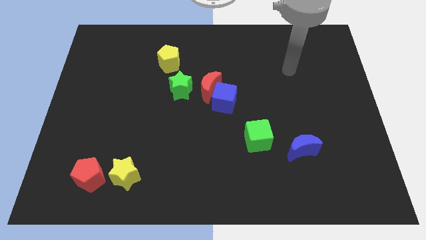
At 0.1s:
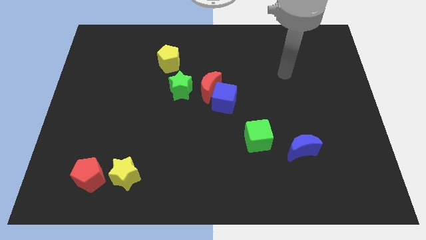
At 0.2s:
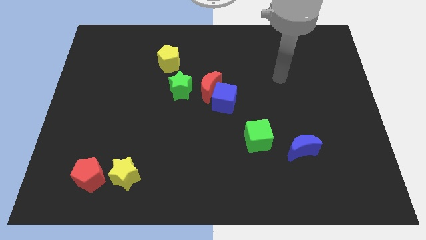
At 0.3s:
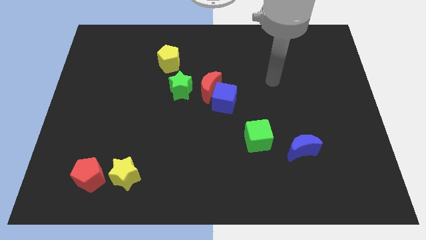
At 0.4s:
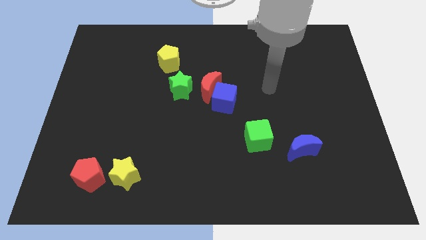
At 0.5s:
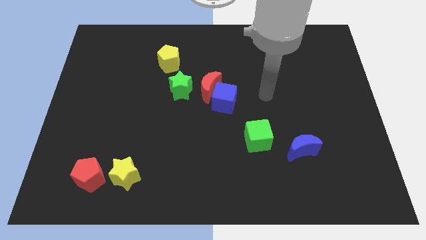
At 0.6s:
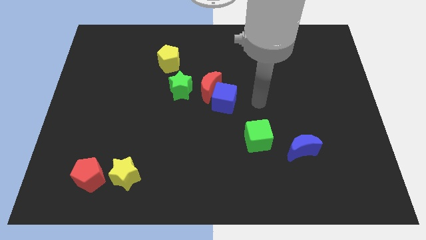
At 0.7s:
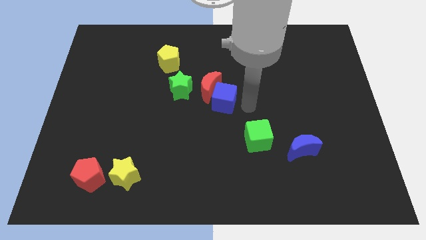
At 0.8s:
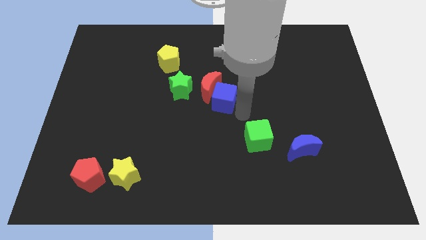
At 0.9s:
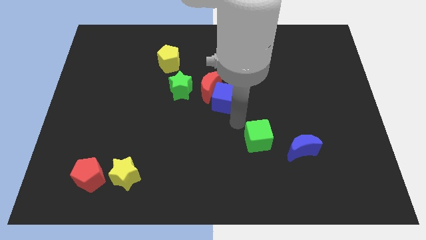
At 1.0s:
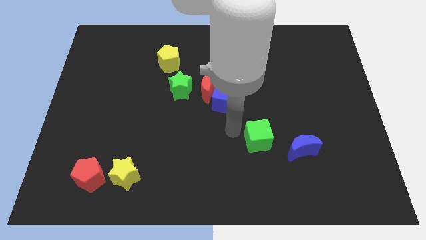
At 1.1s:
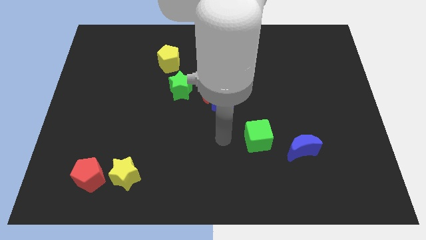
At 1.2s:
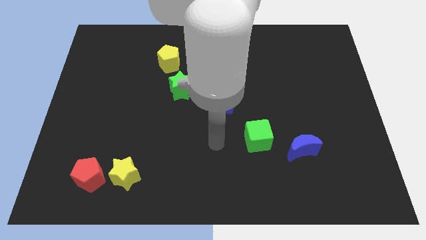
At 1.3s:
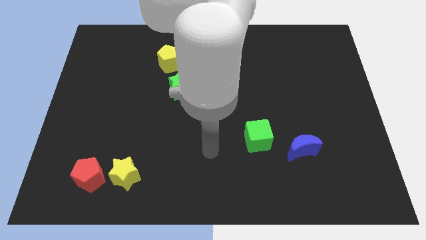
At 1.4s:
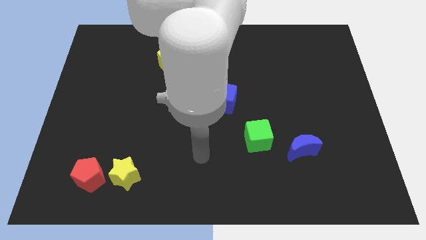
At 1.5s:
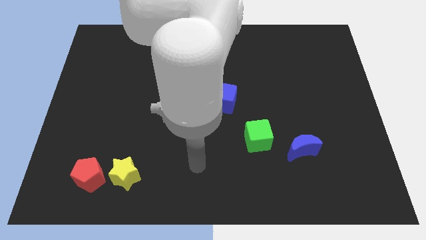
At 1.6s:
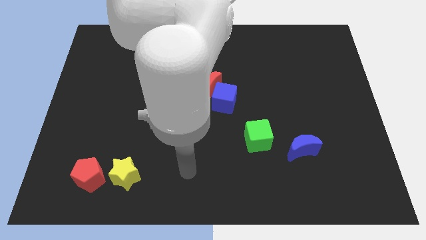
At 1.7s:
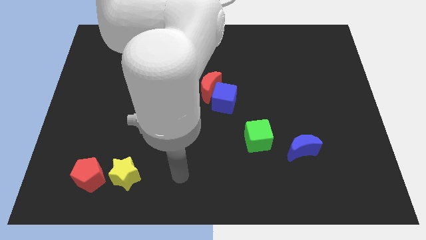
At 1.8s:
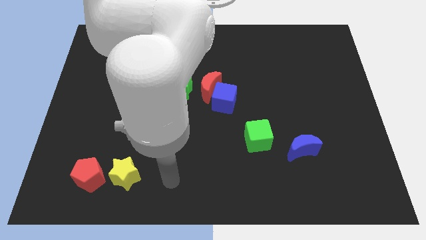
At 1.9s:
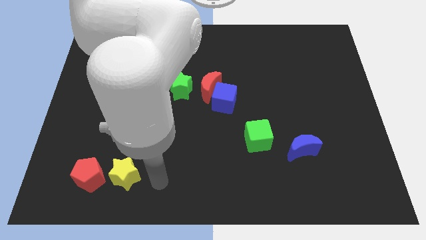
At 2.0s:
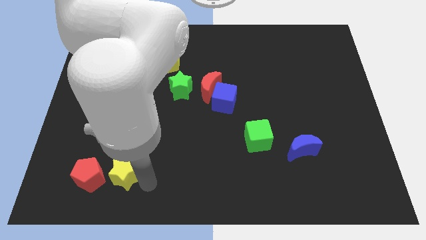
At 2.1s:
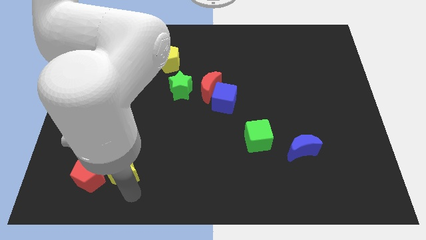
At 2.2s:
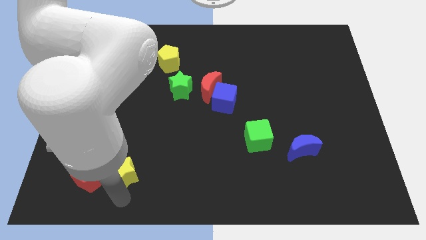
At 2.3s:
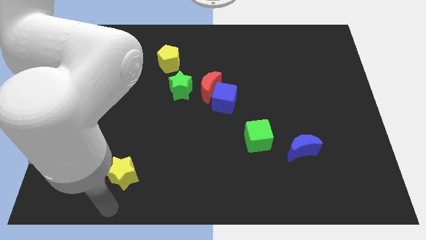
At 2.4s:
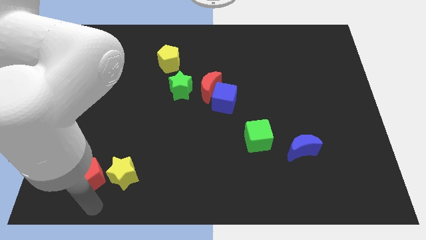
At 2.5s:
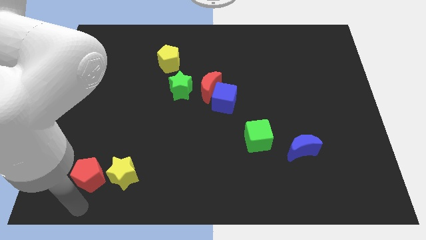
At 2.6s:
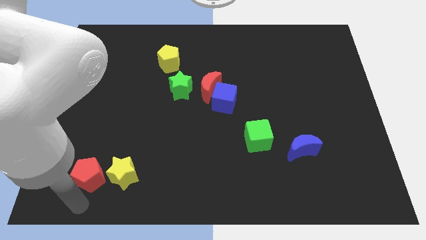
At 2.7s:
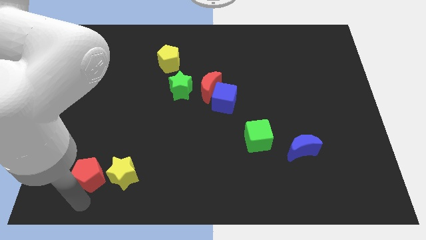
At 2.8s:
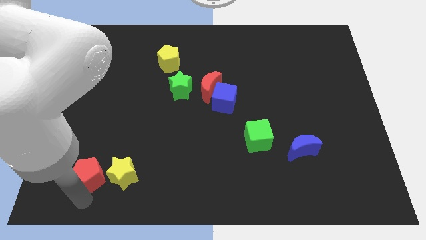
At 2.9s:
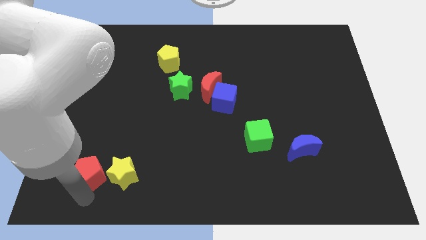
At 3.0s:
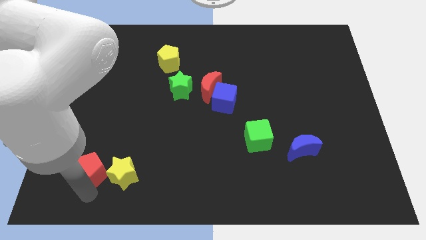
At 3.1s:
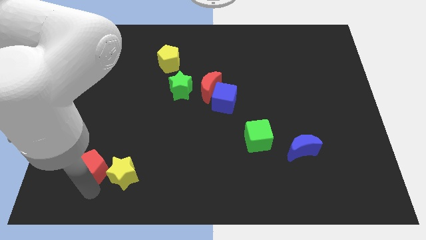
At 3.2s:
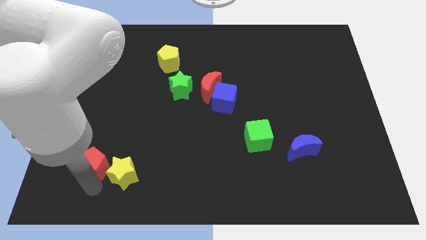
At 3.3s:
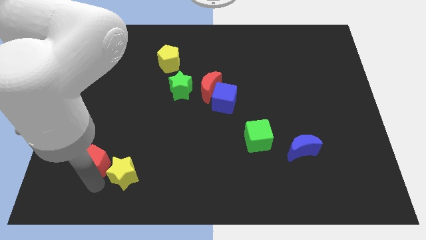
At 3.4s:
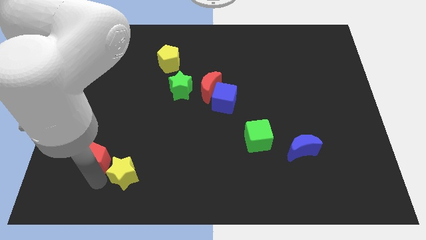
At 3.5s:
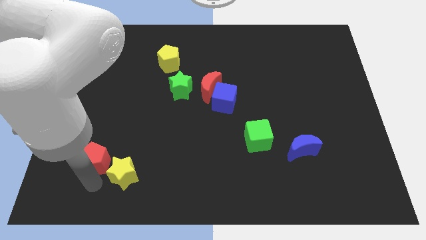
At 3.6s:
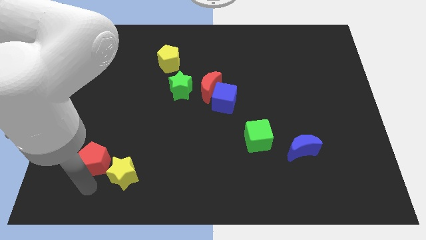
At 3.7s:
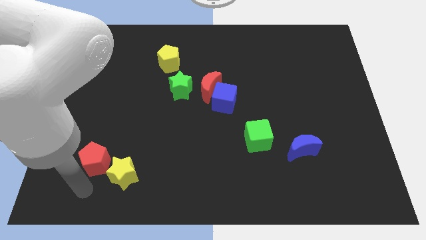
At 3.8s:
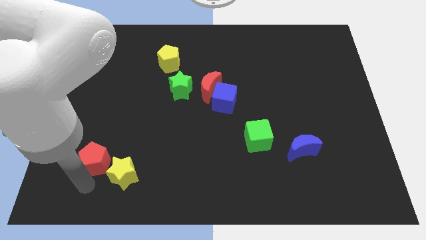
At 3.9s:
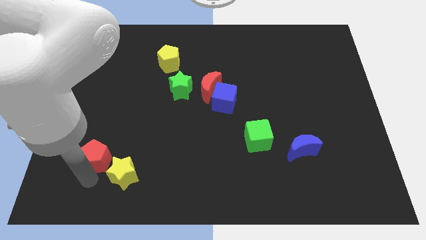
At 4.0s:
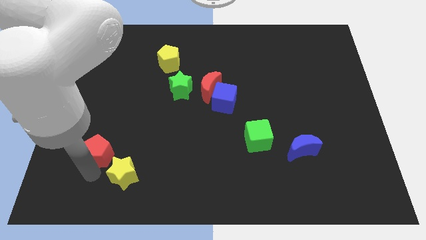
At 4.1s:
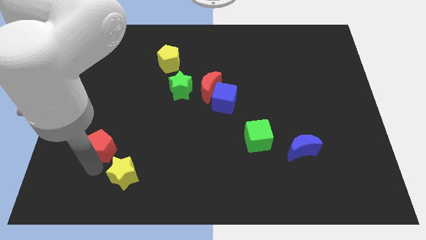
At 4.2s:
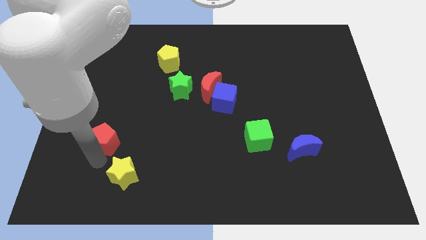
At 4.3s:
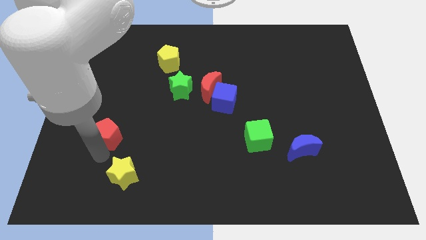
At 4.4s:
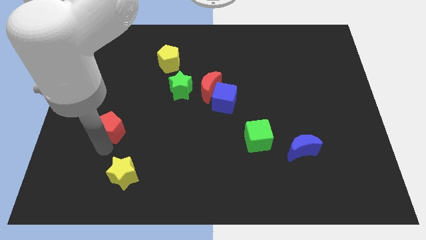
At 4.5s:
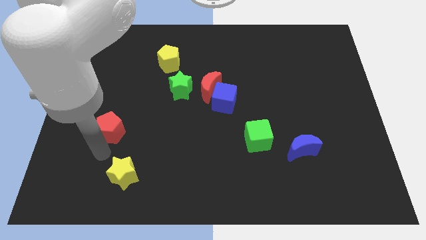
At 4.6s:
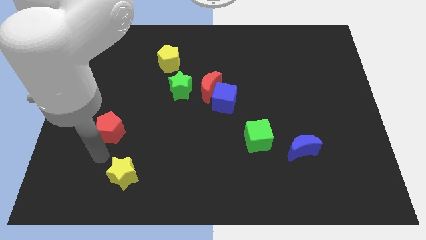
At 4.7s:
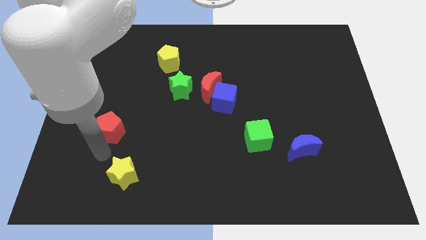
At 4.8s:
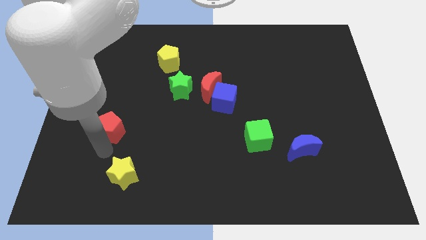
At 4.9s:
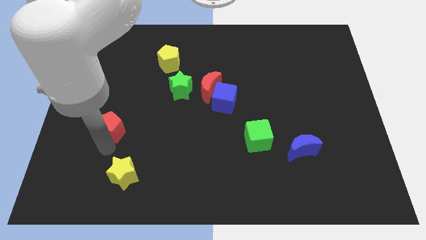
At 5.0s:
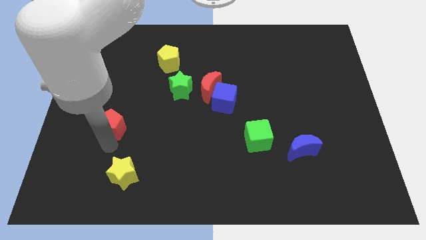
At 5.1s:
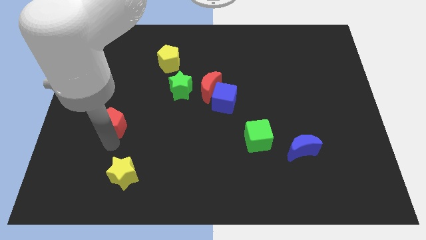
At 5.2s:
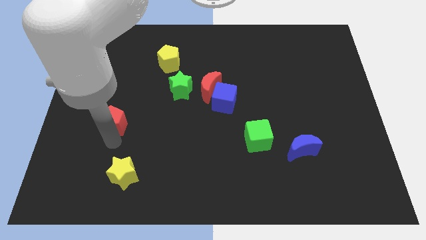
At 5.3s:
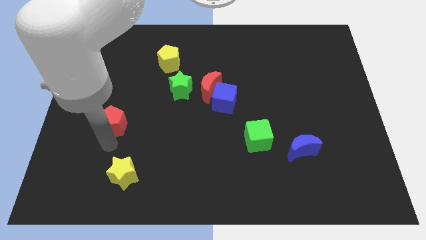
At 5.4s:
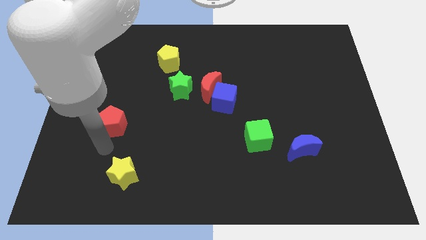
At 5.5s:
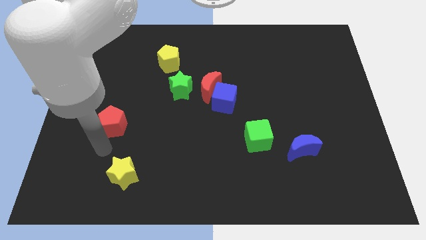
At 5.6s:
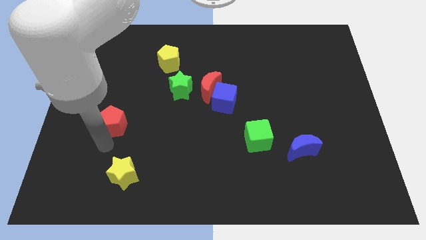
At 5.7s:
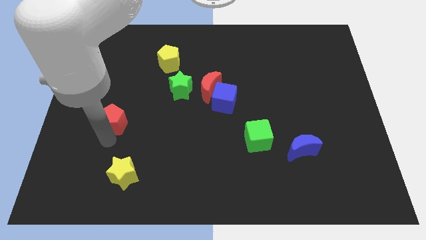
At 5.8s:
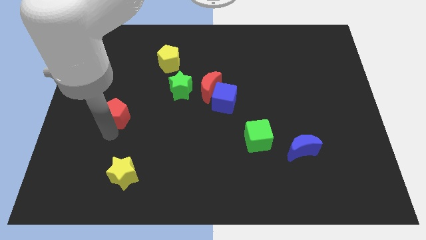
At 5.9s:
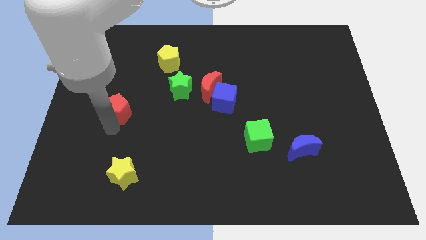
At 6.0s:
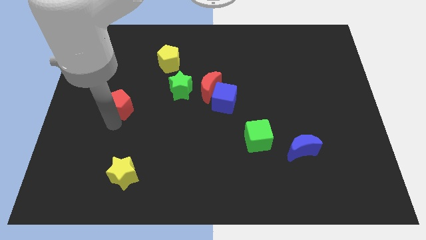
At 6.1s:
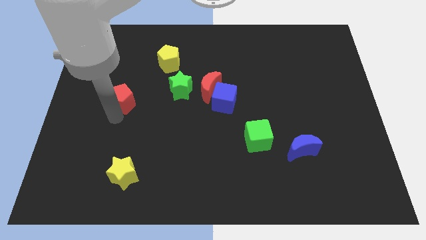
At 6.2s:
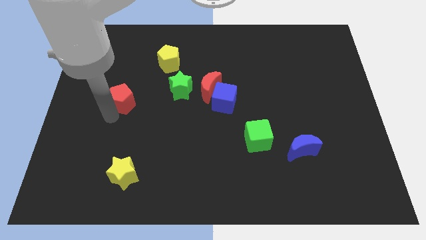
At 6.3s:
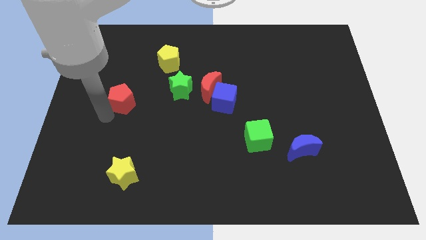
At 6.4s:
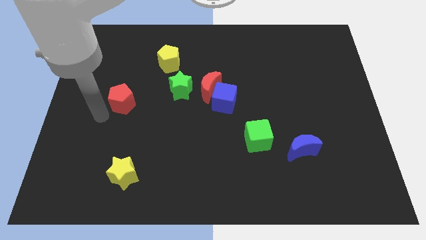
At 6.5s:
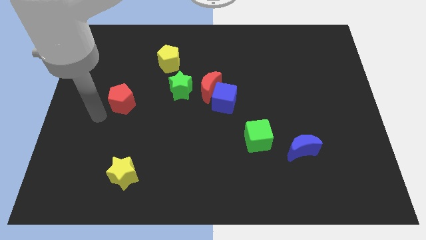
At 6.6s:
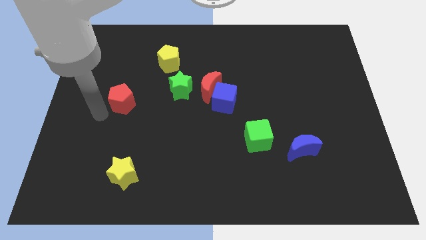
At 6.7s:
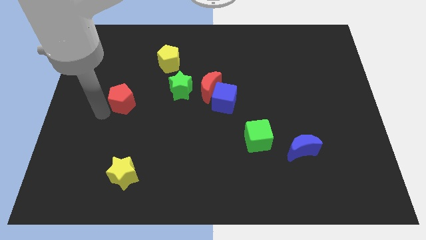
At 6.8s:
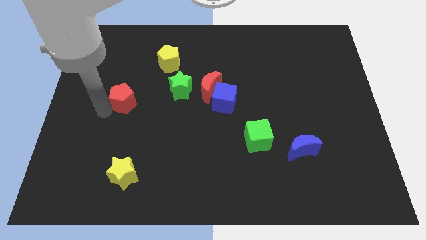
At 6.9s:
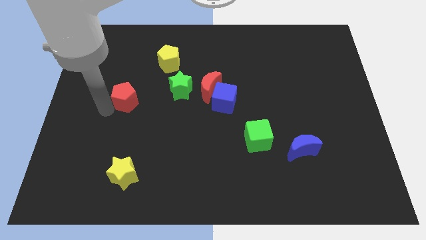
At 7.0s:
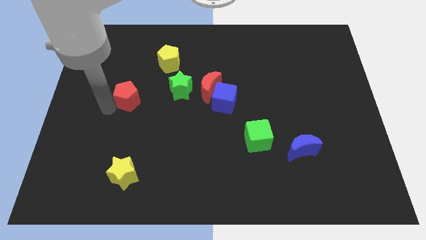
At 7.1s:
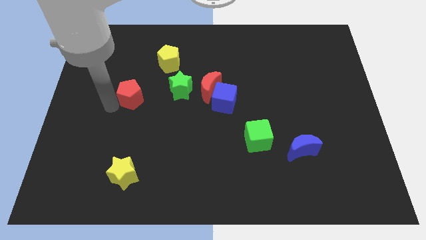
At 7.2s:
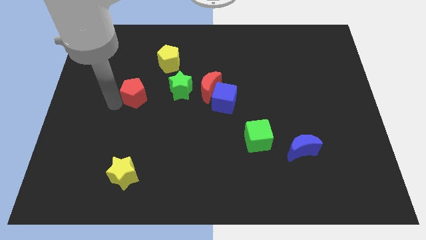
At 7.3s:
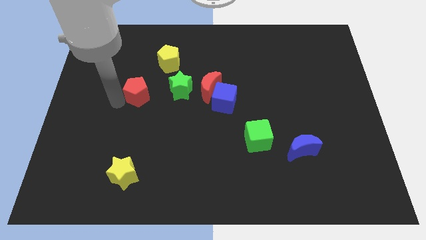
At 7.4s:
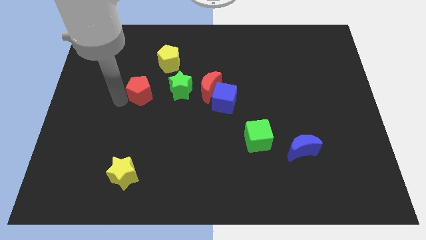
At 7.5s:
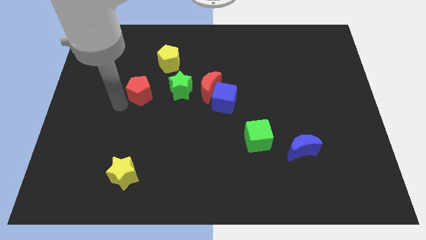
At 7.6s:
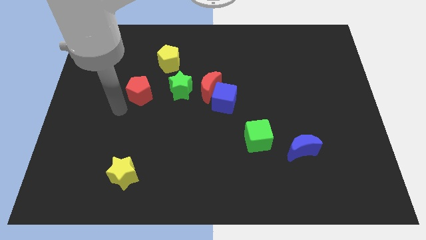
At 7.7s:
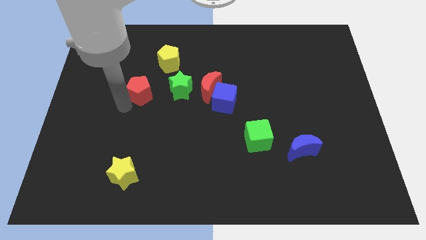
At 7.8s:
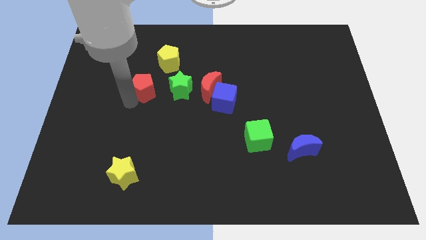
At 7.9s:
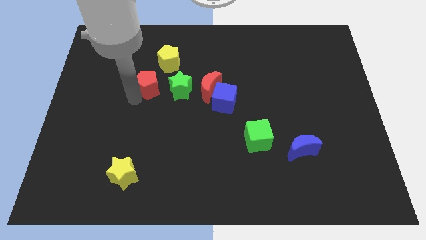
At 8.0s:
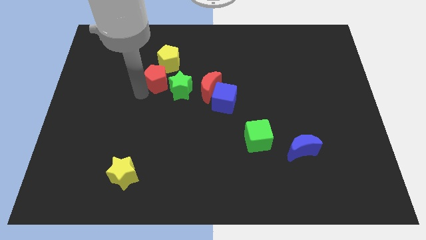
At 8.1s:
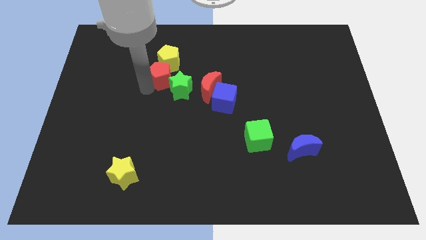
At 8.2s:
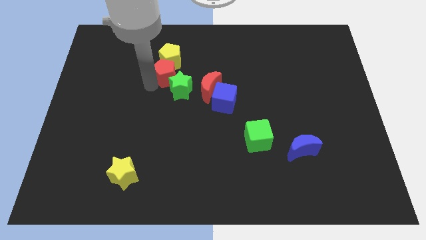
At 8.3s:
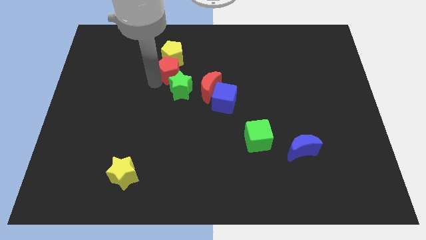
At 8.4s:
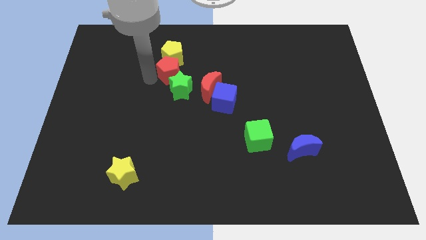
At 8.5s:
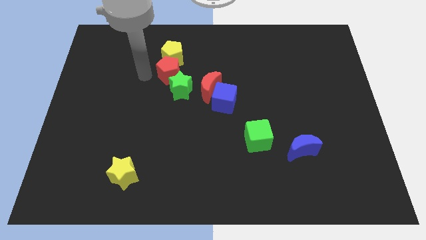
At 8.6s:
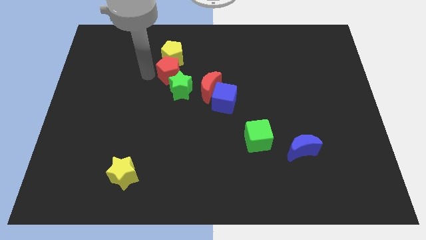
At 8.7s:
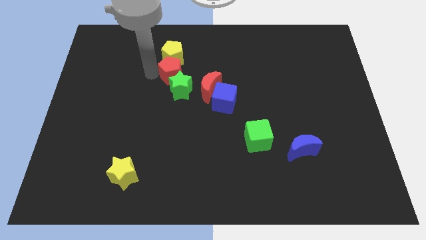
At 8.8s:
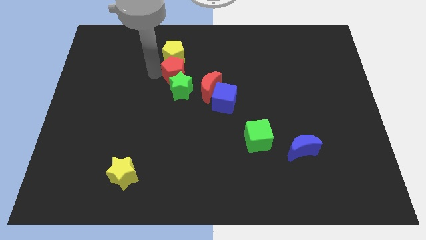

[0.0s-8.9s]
slide the red pentagon diagonally up and to the right of the green star
